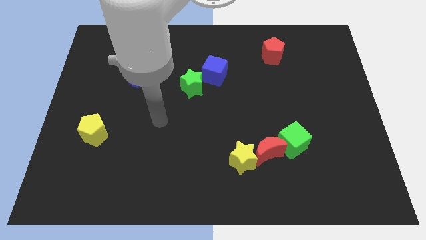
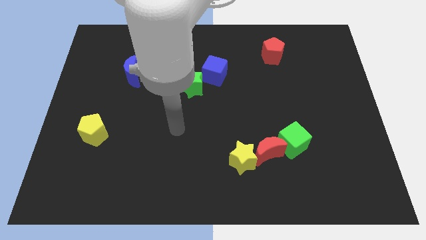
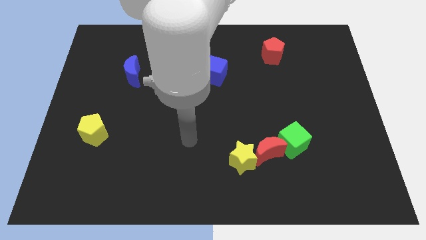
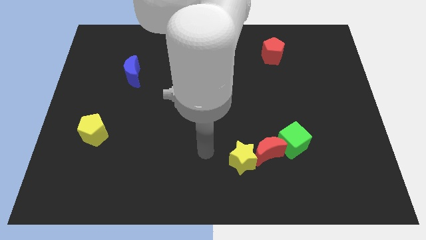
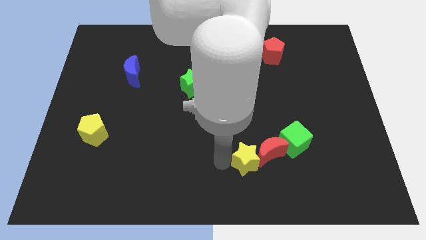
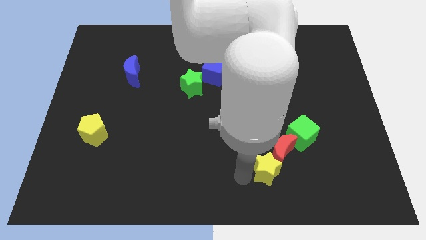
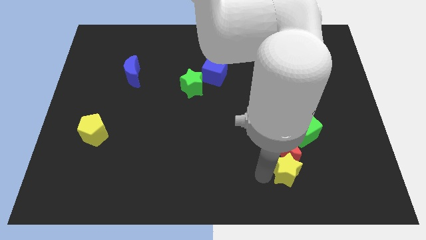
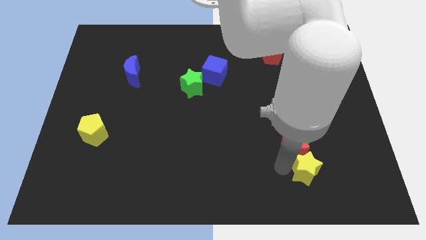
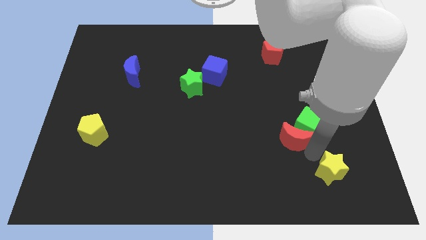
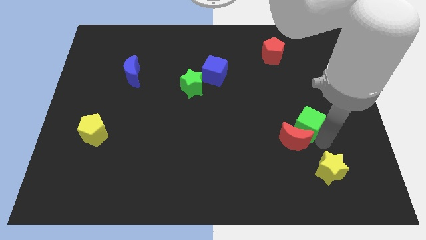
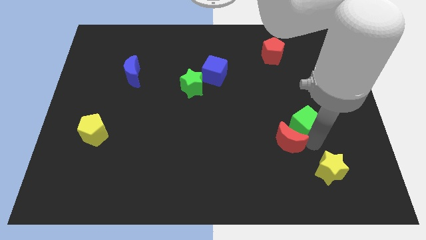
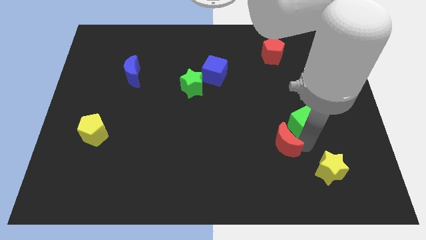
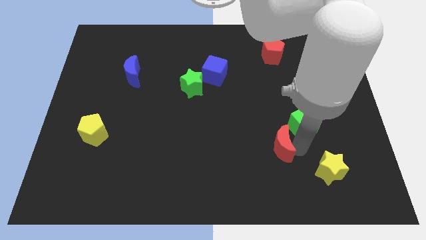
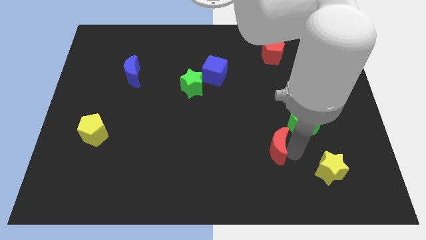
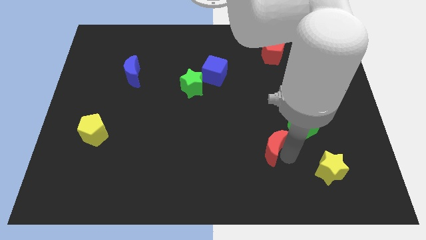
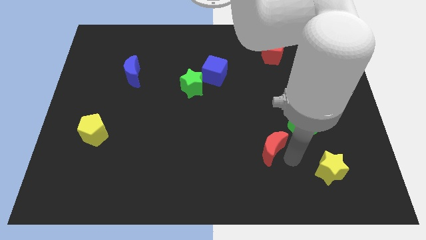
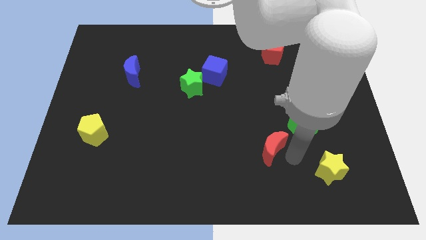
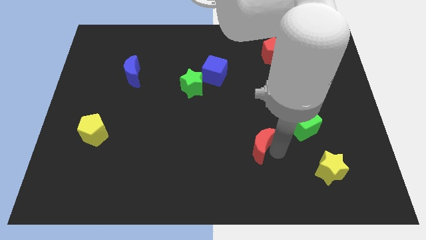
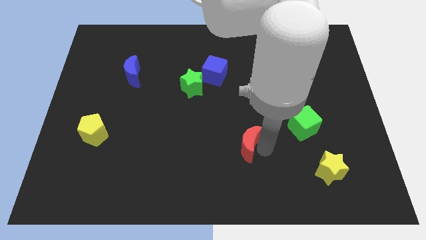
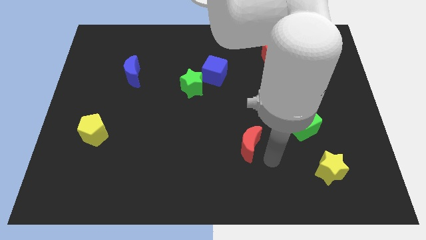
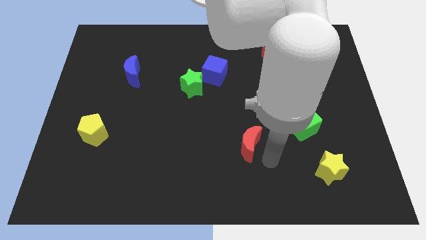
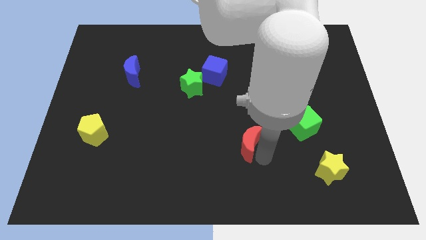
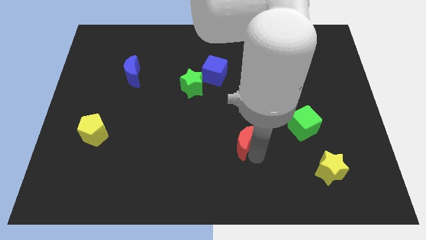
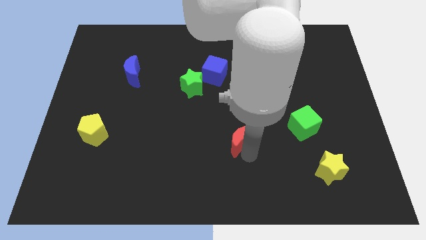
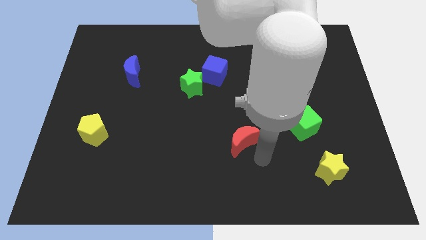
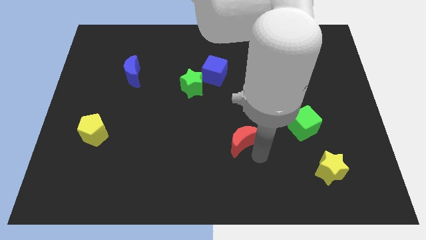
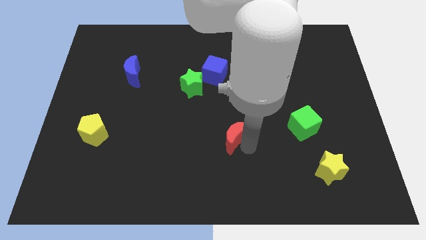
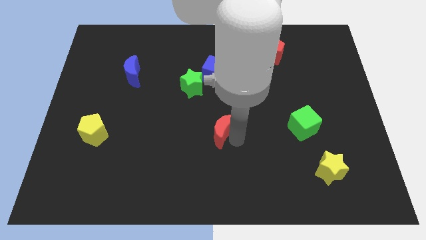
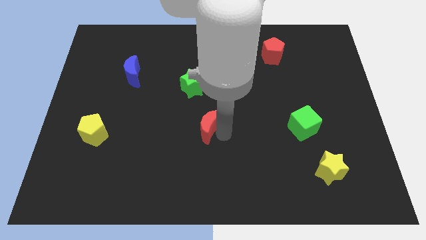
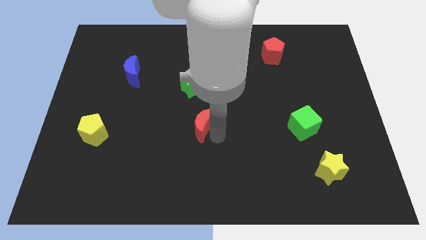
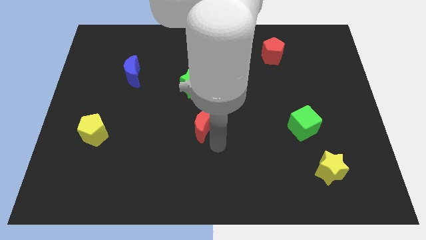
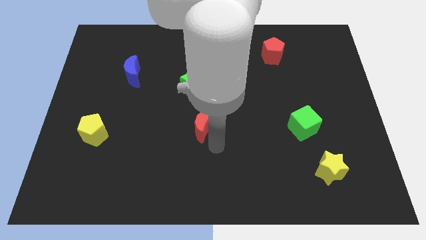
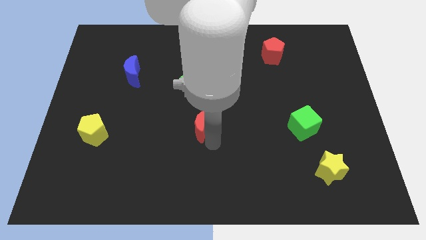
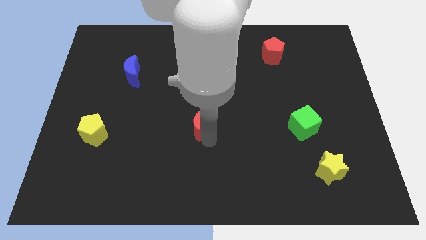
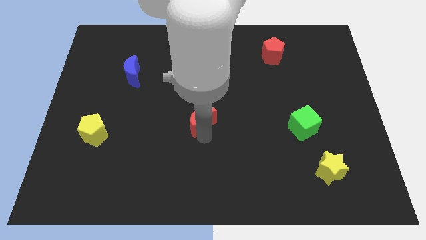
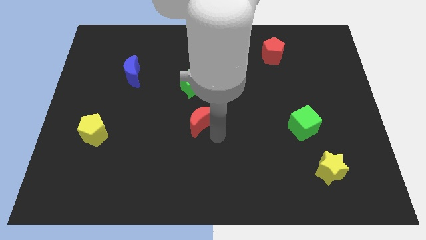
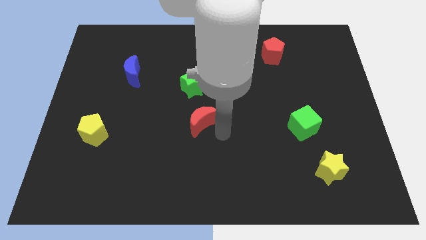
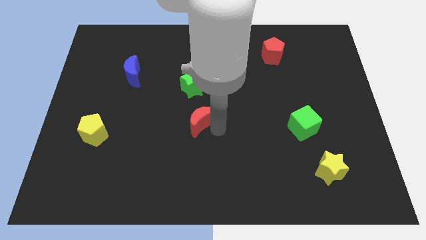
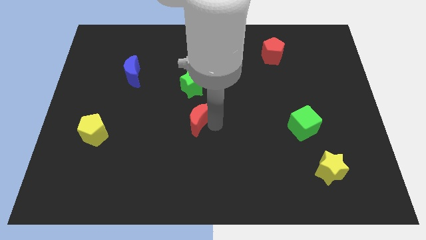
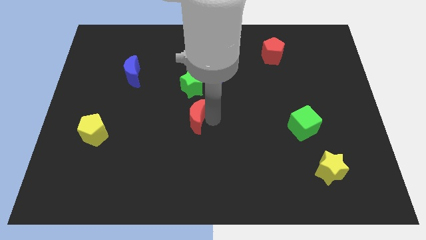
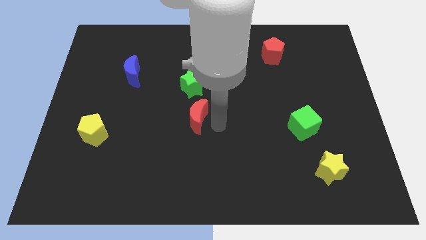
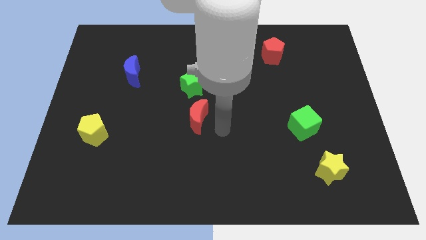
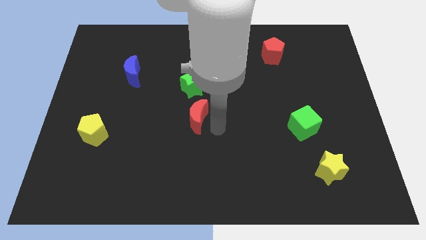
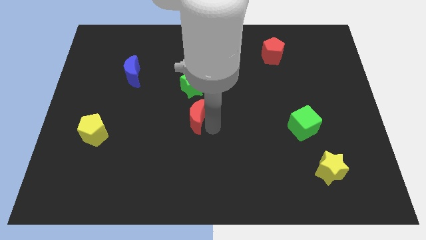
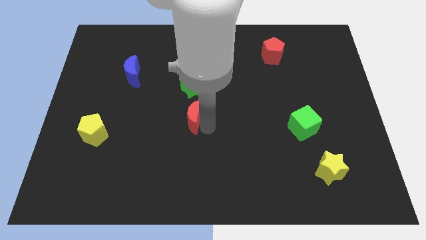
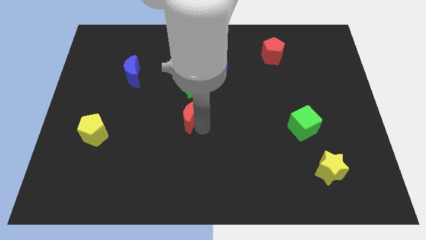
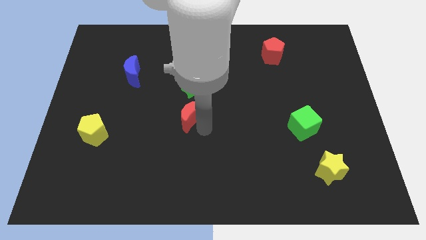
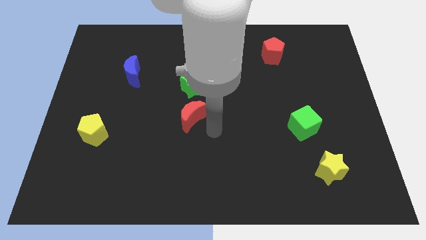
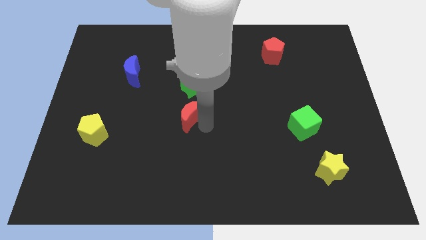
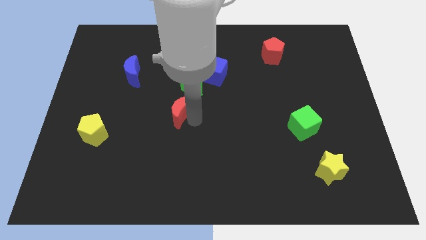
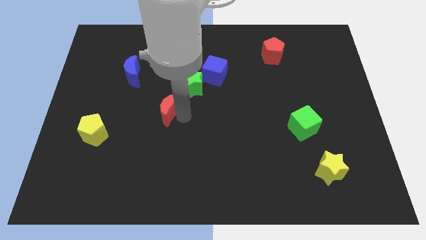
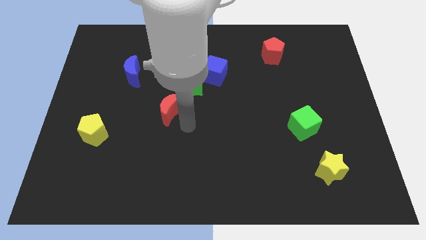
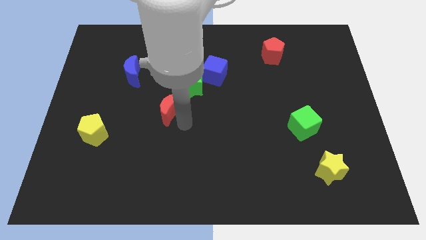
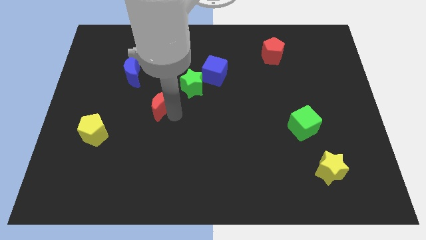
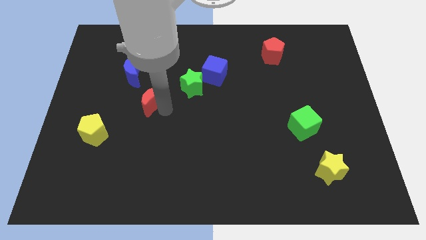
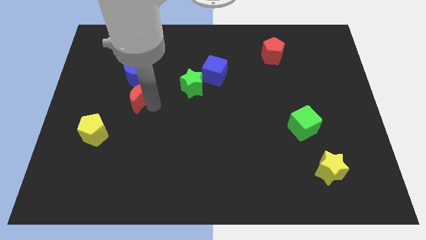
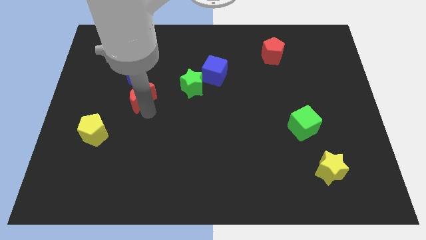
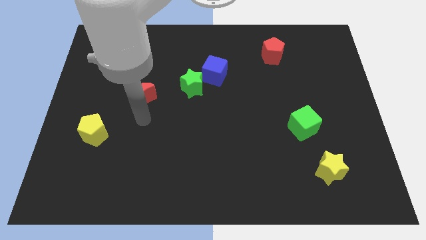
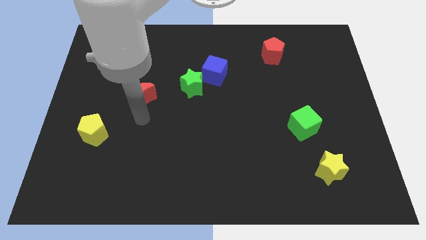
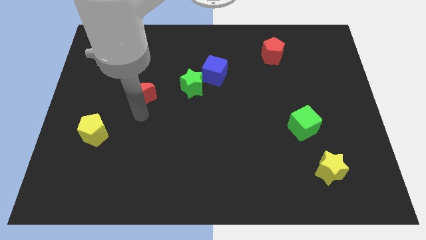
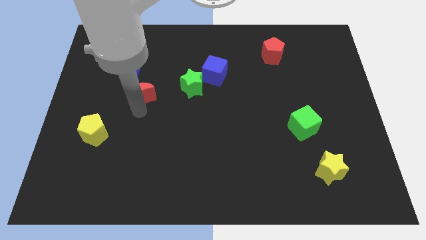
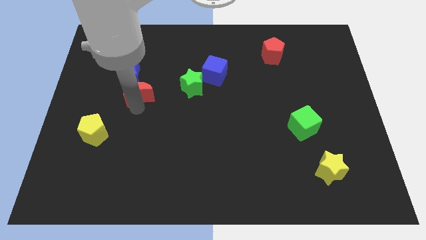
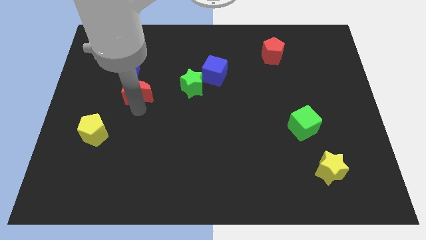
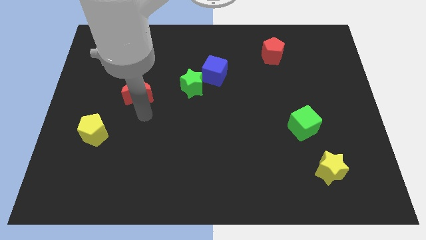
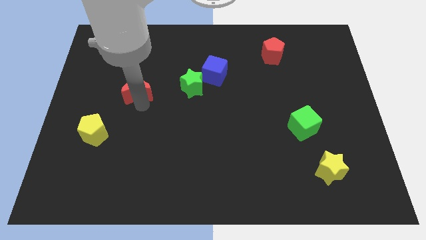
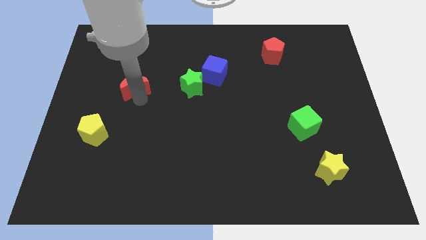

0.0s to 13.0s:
put the red moon next to the blue moon
